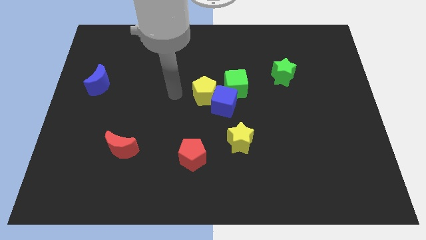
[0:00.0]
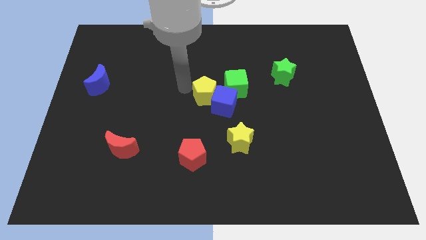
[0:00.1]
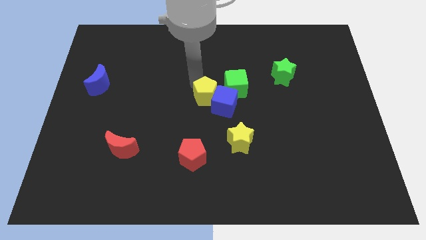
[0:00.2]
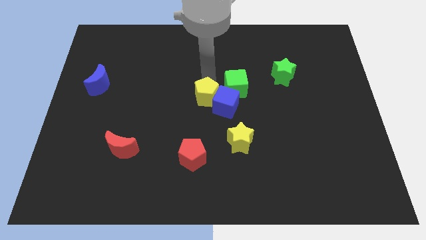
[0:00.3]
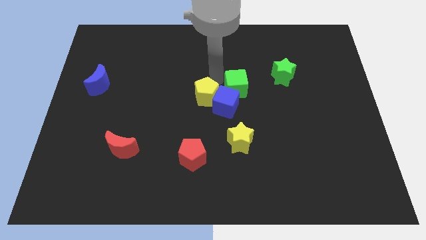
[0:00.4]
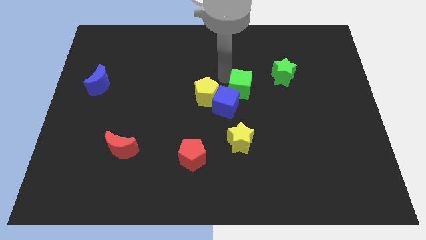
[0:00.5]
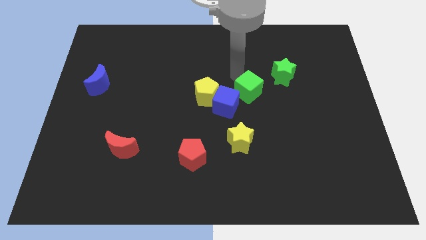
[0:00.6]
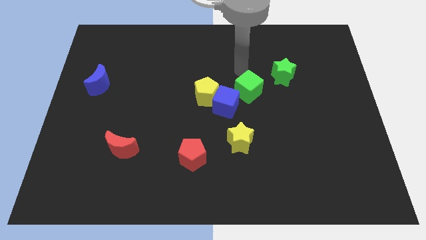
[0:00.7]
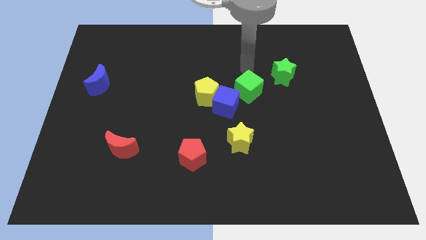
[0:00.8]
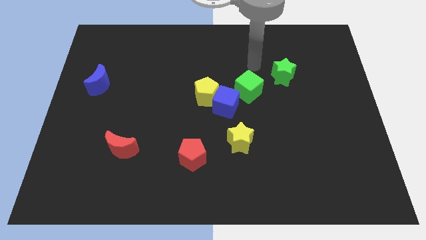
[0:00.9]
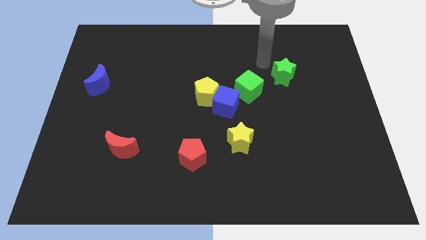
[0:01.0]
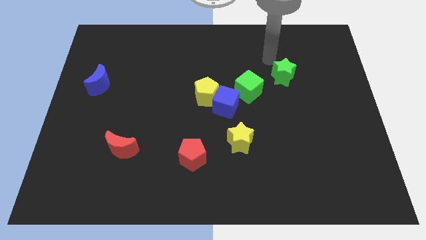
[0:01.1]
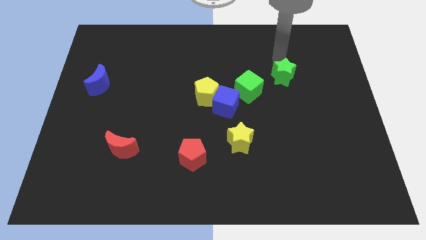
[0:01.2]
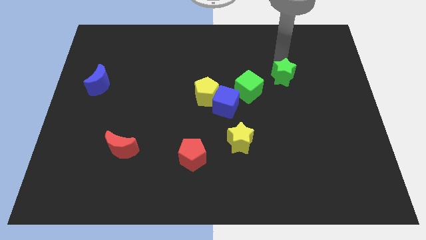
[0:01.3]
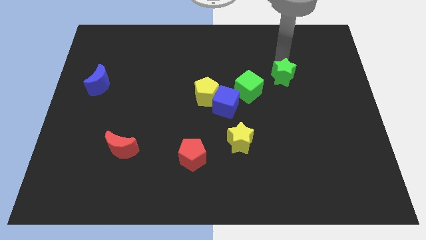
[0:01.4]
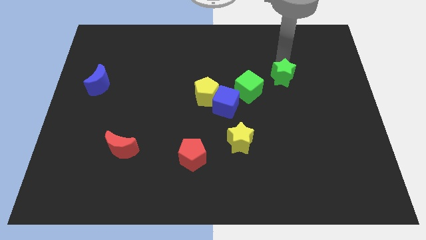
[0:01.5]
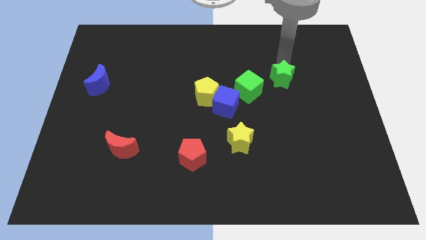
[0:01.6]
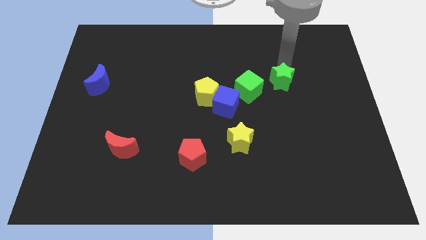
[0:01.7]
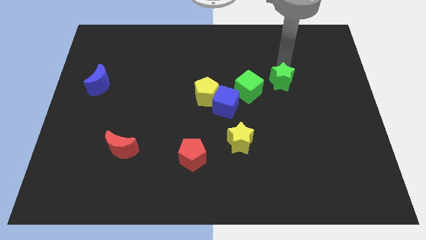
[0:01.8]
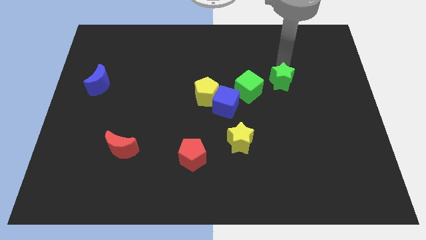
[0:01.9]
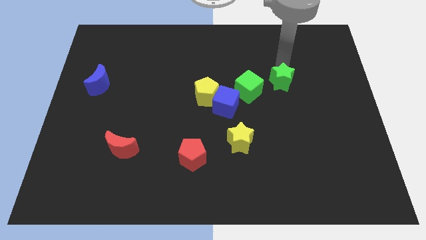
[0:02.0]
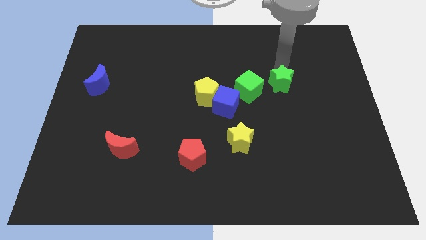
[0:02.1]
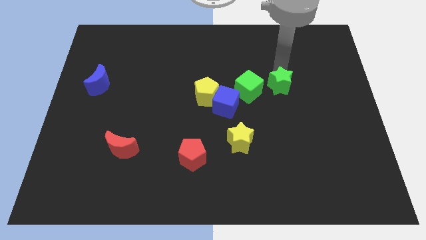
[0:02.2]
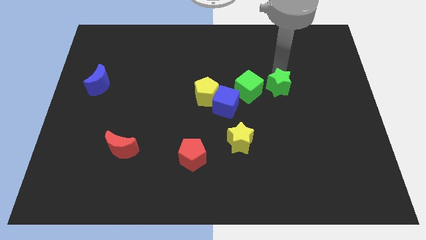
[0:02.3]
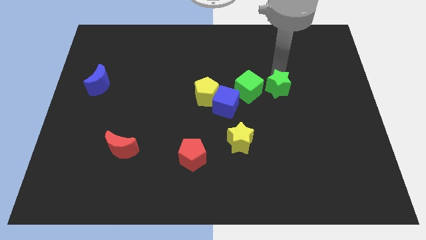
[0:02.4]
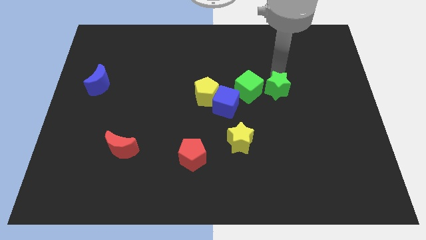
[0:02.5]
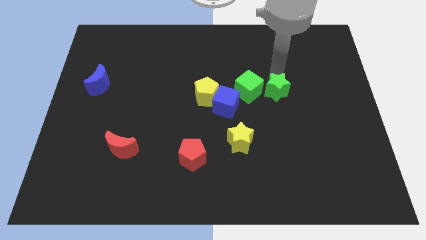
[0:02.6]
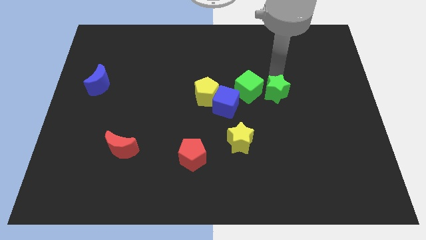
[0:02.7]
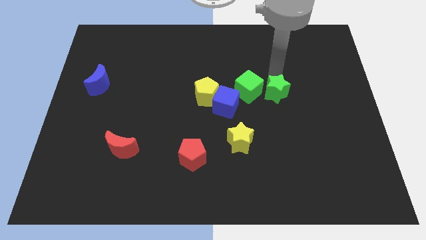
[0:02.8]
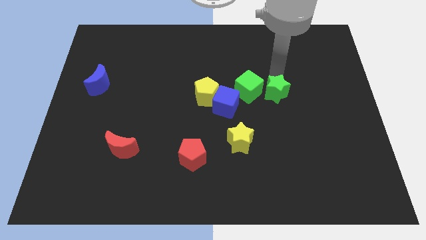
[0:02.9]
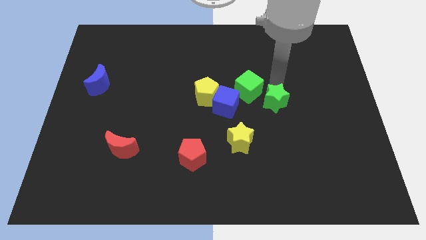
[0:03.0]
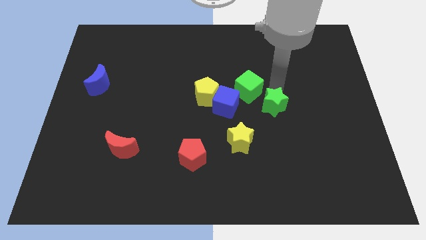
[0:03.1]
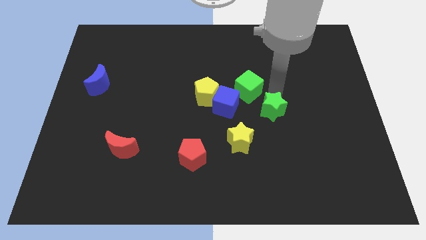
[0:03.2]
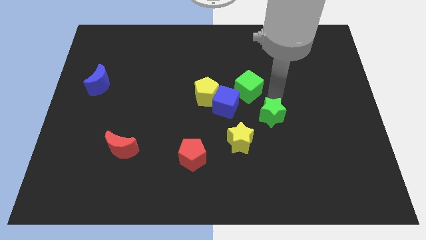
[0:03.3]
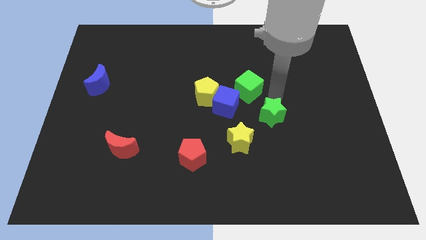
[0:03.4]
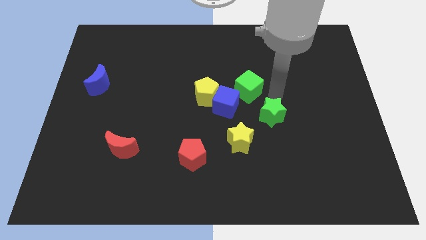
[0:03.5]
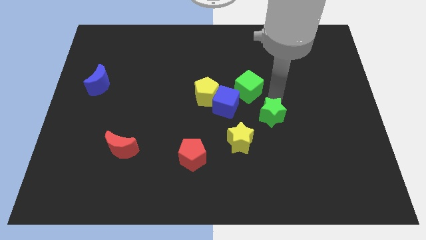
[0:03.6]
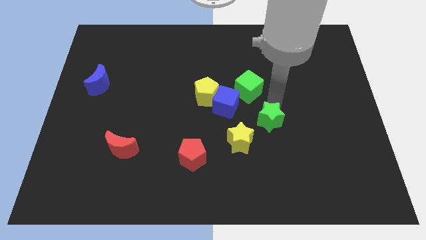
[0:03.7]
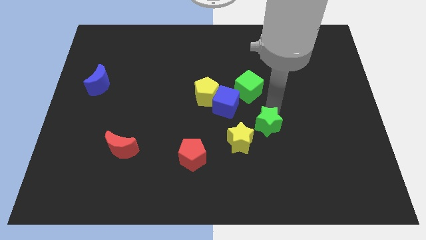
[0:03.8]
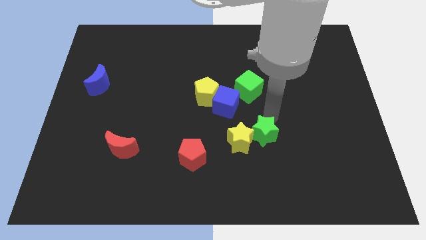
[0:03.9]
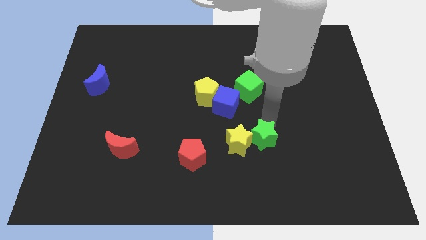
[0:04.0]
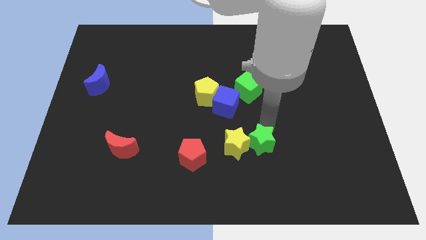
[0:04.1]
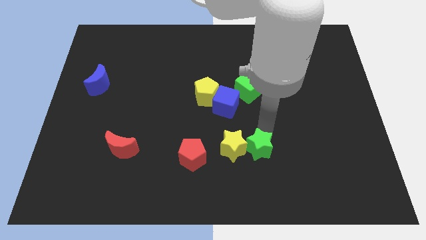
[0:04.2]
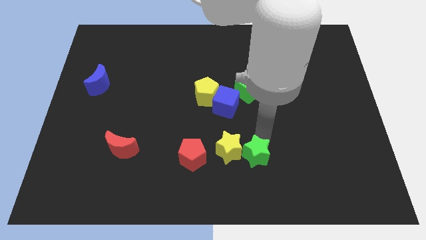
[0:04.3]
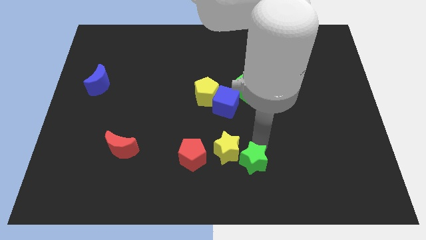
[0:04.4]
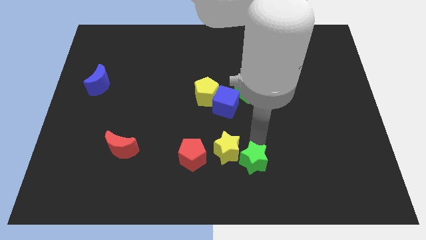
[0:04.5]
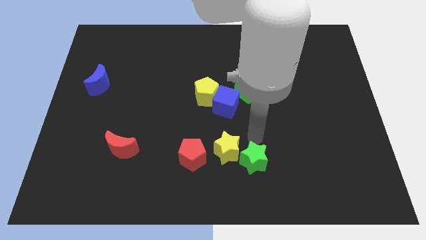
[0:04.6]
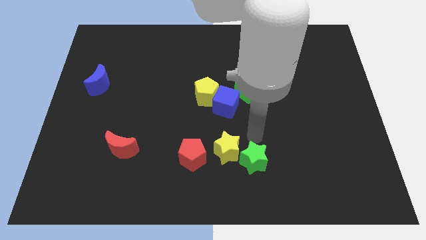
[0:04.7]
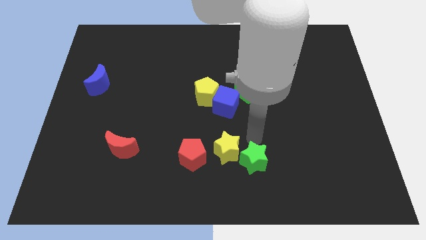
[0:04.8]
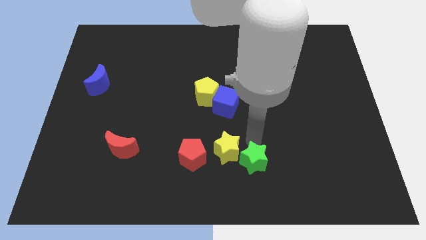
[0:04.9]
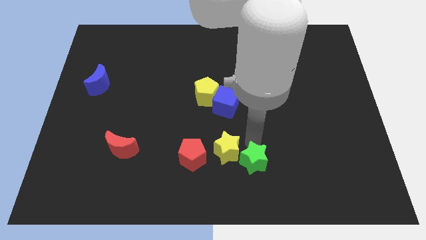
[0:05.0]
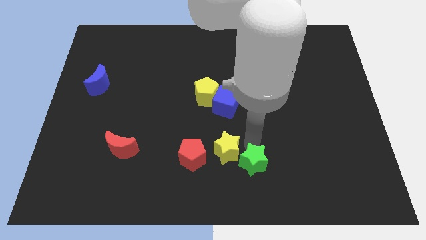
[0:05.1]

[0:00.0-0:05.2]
push the green star to the bottom
